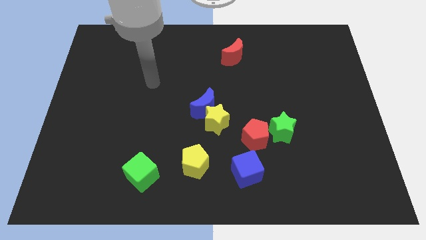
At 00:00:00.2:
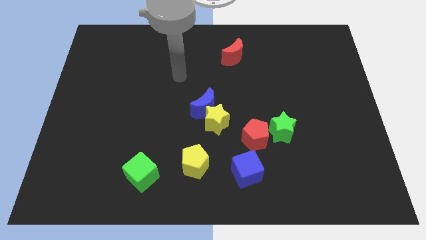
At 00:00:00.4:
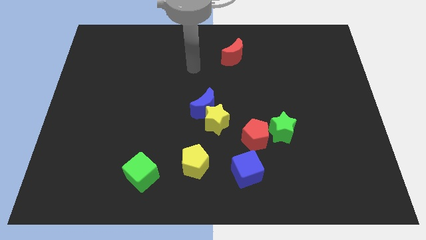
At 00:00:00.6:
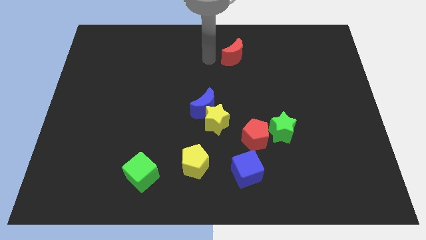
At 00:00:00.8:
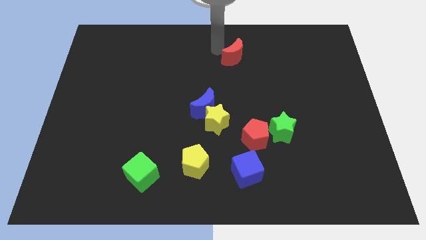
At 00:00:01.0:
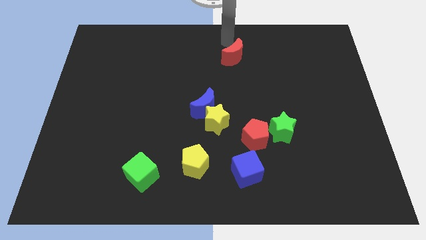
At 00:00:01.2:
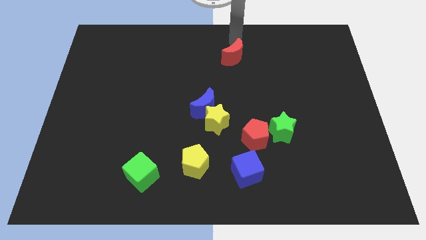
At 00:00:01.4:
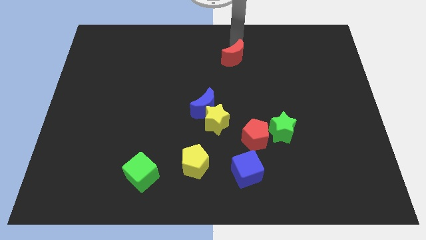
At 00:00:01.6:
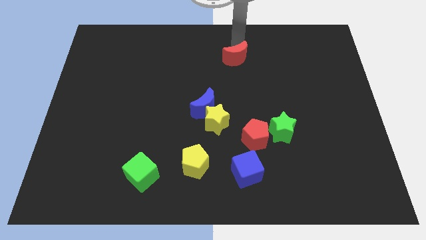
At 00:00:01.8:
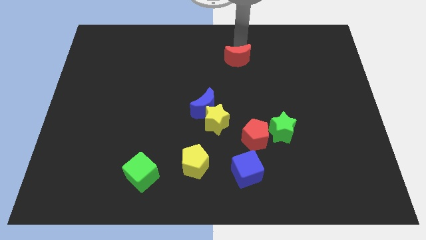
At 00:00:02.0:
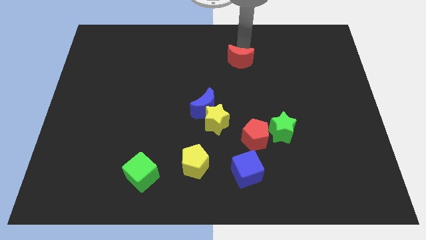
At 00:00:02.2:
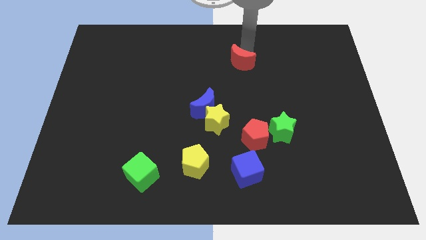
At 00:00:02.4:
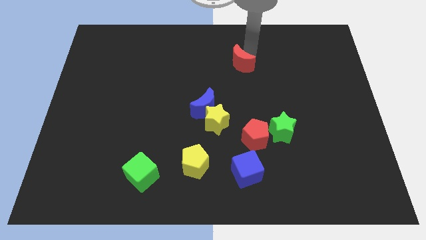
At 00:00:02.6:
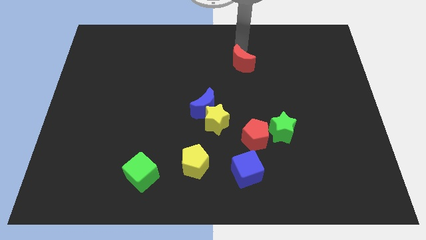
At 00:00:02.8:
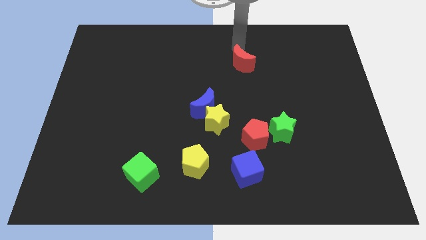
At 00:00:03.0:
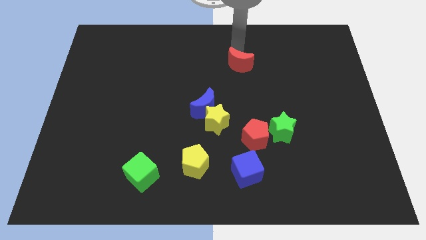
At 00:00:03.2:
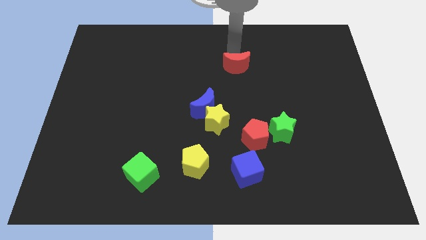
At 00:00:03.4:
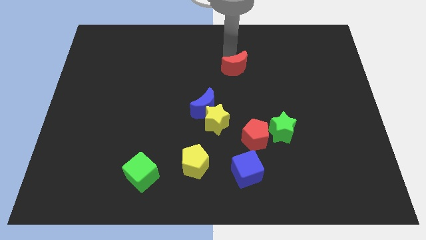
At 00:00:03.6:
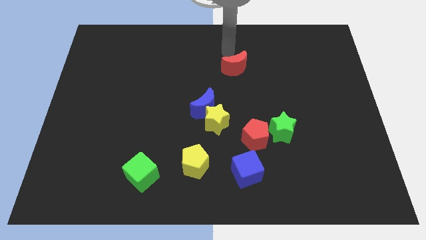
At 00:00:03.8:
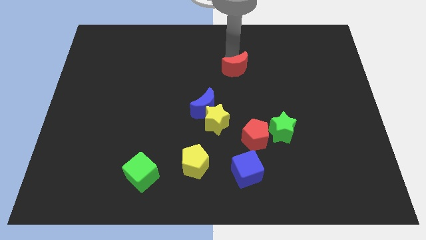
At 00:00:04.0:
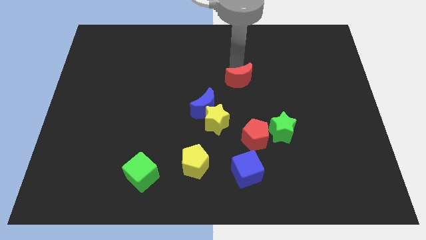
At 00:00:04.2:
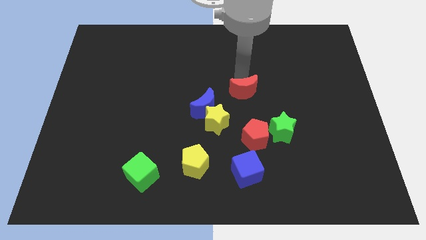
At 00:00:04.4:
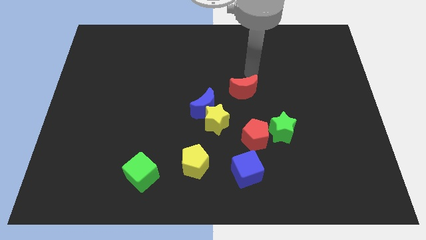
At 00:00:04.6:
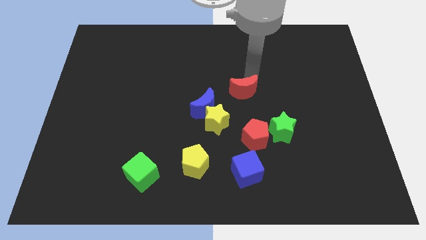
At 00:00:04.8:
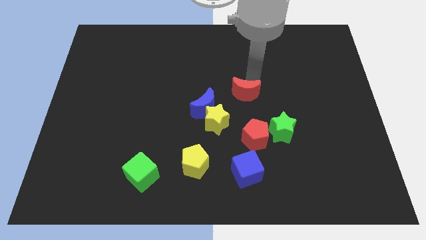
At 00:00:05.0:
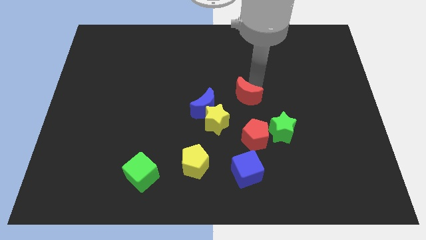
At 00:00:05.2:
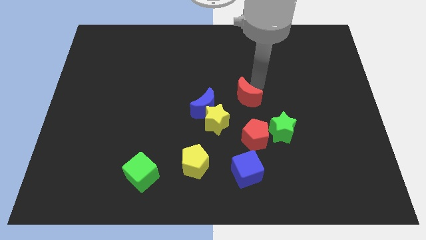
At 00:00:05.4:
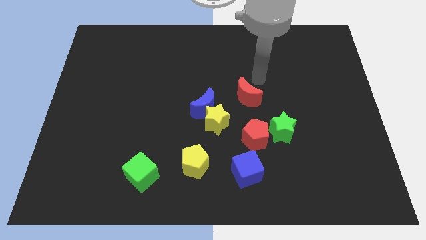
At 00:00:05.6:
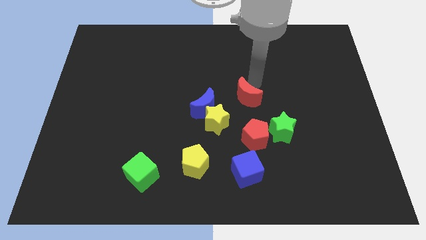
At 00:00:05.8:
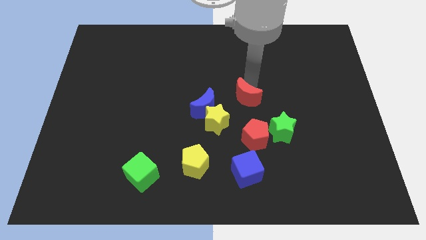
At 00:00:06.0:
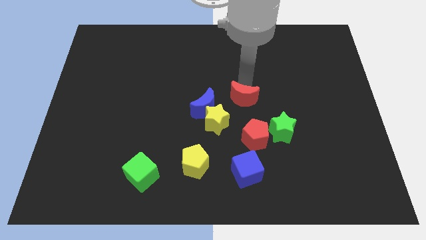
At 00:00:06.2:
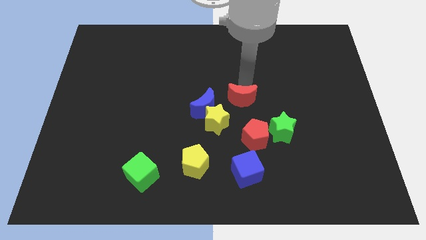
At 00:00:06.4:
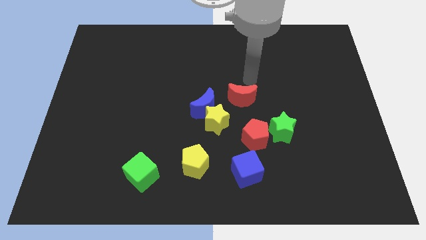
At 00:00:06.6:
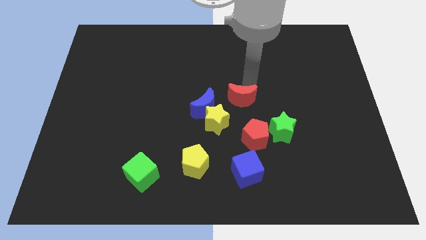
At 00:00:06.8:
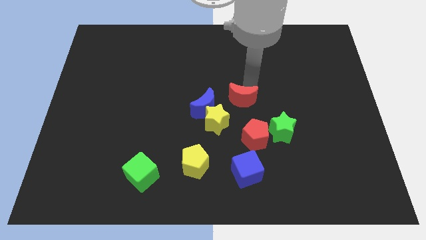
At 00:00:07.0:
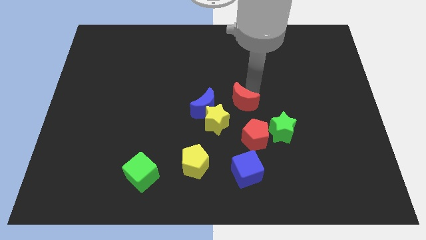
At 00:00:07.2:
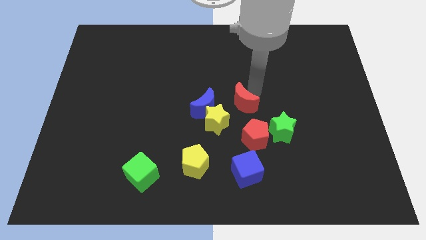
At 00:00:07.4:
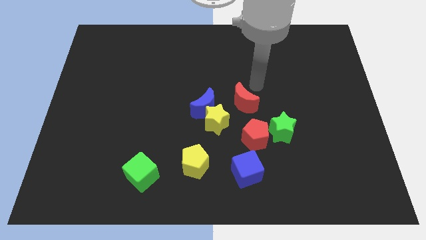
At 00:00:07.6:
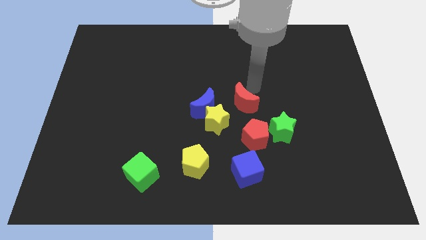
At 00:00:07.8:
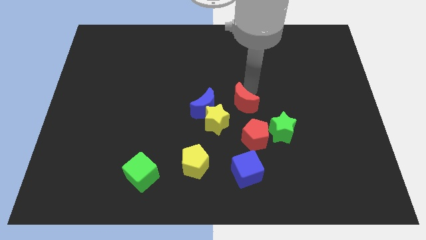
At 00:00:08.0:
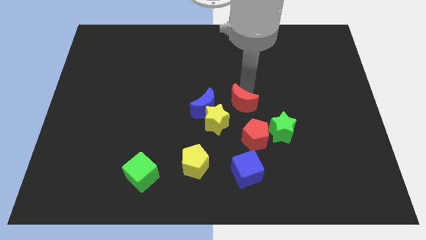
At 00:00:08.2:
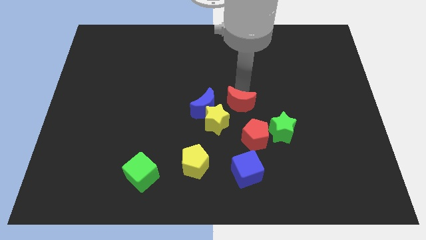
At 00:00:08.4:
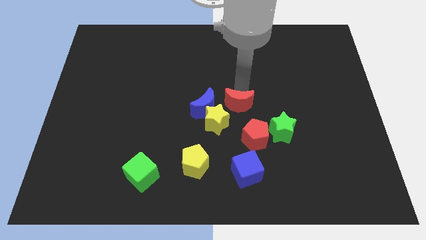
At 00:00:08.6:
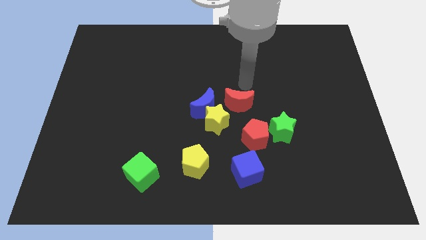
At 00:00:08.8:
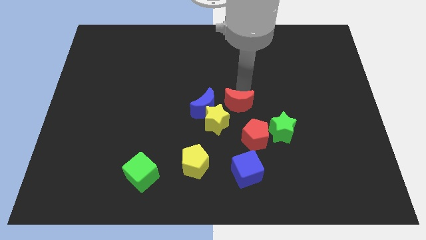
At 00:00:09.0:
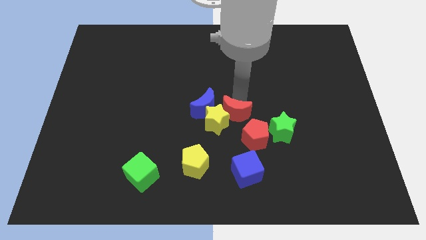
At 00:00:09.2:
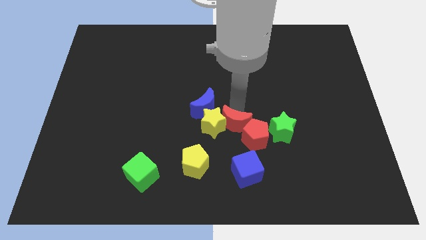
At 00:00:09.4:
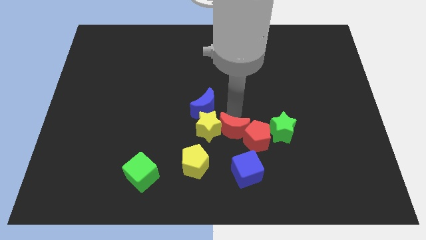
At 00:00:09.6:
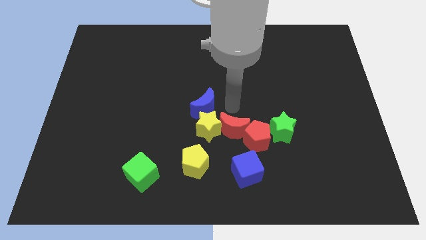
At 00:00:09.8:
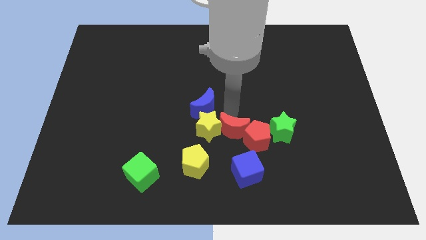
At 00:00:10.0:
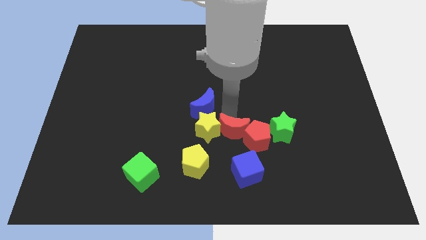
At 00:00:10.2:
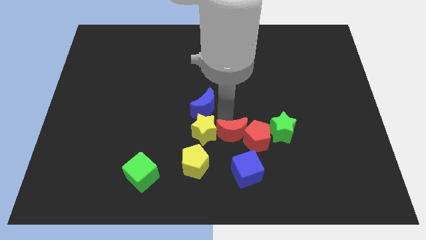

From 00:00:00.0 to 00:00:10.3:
put the red moon diagonally down and to the left of the red pentagon

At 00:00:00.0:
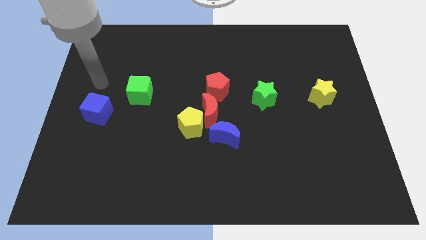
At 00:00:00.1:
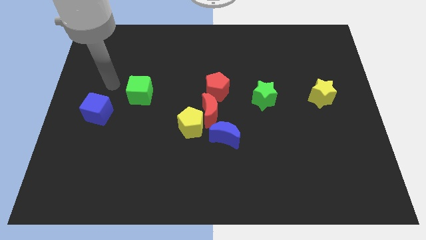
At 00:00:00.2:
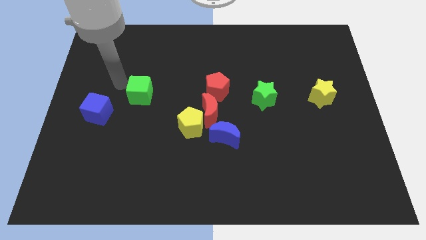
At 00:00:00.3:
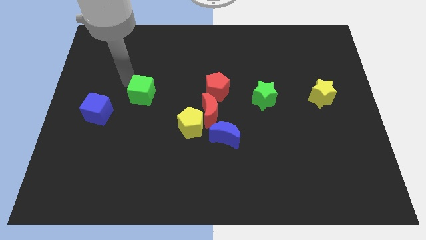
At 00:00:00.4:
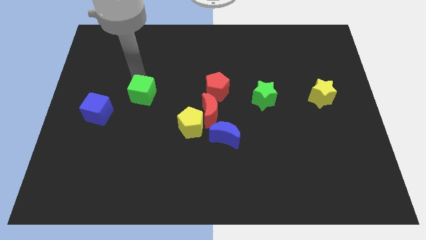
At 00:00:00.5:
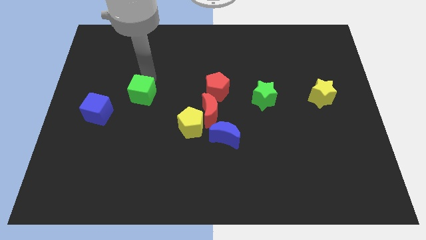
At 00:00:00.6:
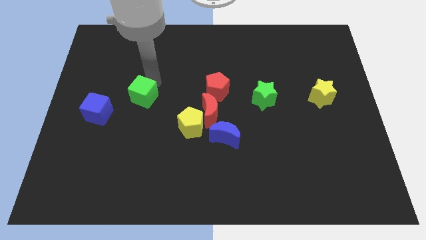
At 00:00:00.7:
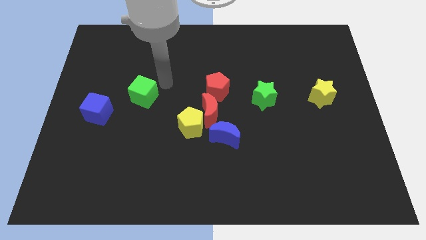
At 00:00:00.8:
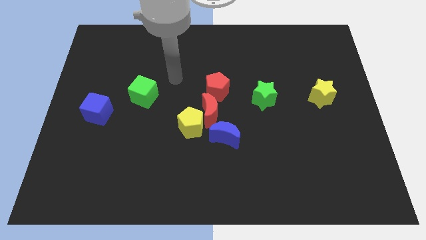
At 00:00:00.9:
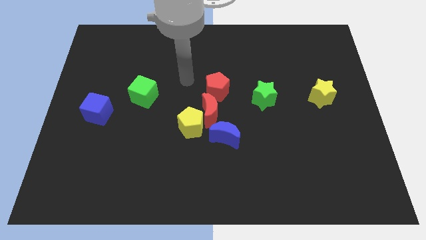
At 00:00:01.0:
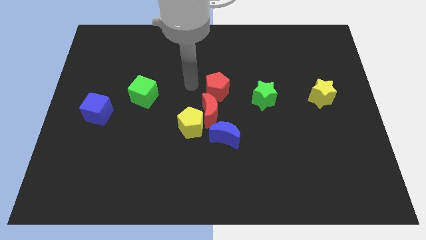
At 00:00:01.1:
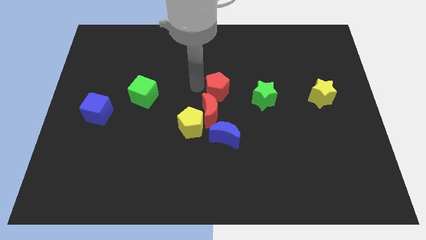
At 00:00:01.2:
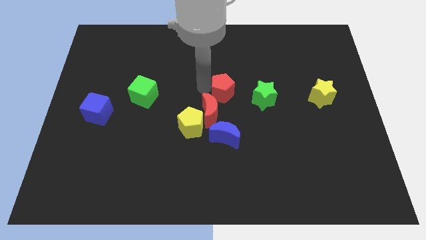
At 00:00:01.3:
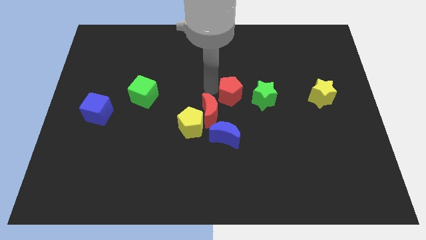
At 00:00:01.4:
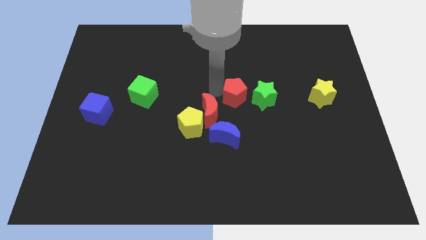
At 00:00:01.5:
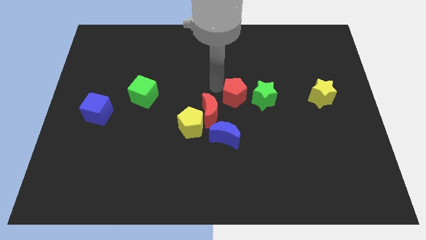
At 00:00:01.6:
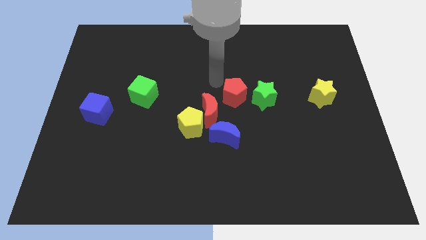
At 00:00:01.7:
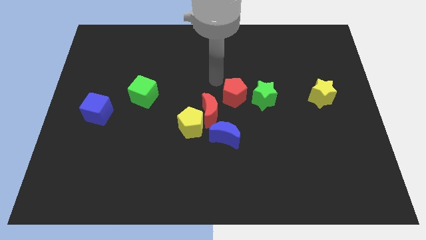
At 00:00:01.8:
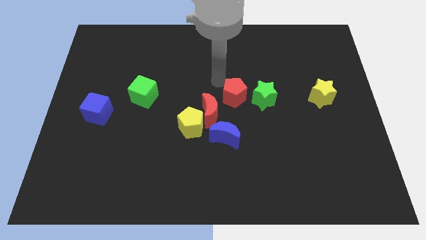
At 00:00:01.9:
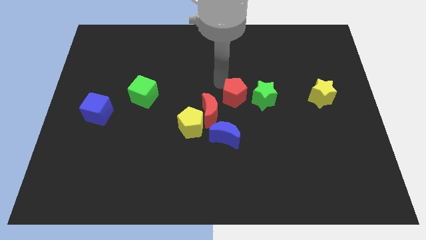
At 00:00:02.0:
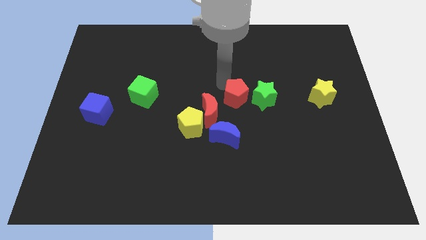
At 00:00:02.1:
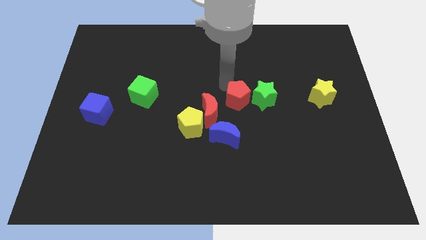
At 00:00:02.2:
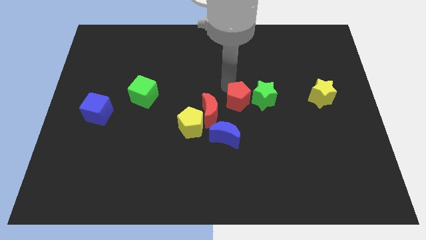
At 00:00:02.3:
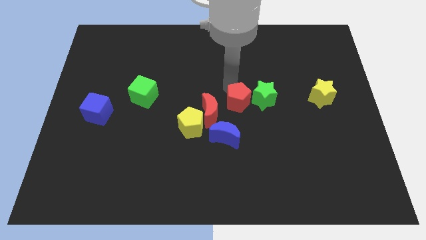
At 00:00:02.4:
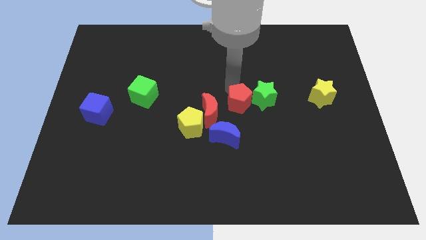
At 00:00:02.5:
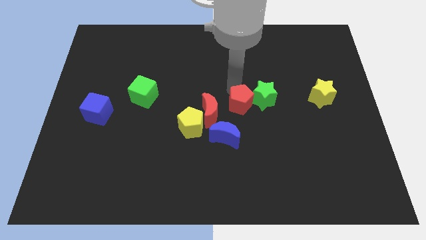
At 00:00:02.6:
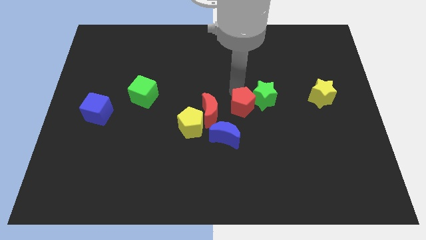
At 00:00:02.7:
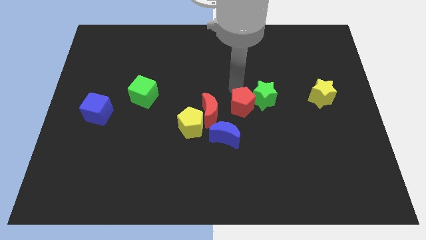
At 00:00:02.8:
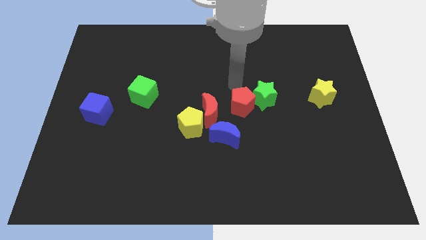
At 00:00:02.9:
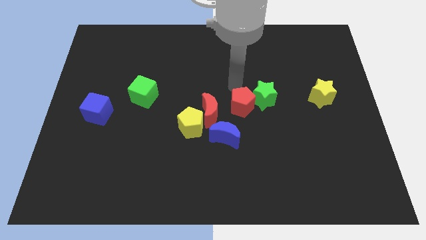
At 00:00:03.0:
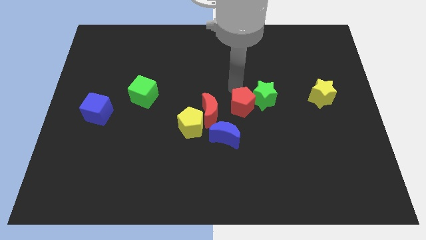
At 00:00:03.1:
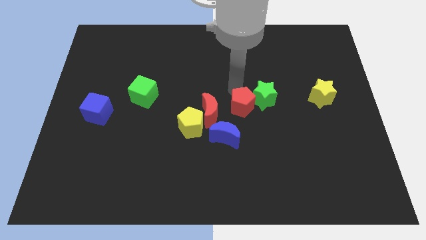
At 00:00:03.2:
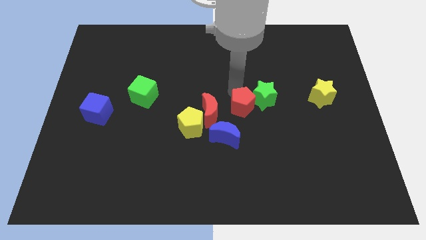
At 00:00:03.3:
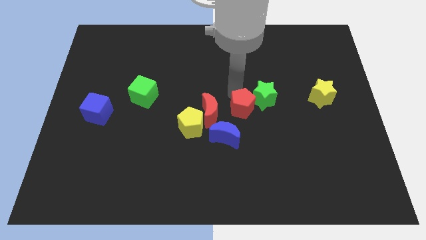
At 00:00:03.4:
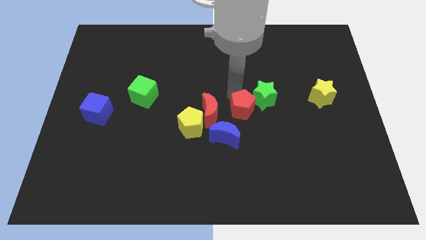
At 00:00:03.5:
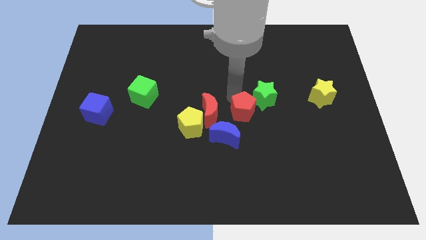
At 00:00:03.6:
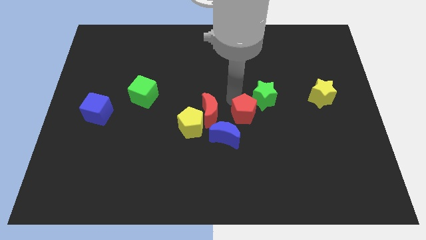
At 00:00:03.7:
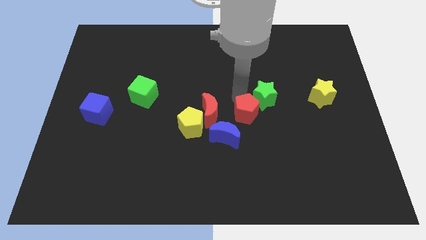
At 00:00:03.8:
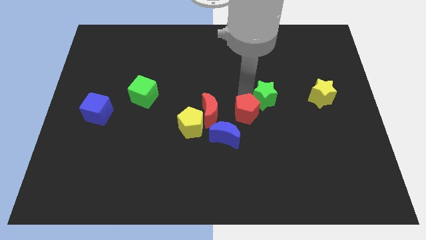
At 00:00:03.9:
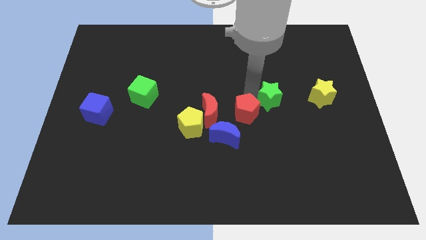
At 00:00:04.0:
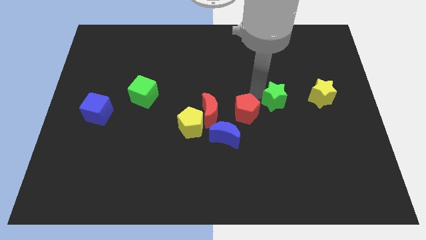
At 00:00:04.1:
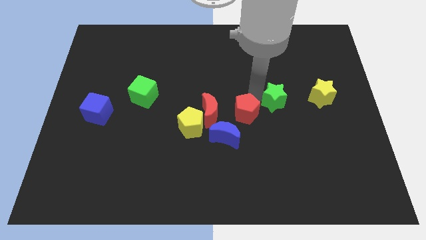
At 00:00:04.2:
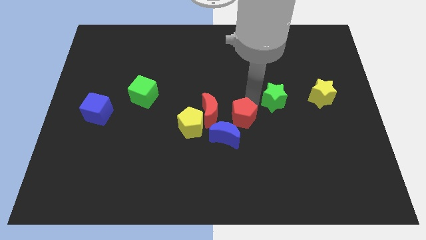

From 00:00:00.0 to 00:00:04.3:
push the red pentagon diagonally down and to the right of the red moon
